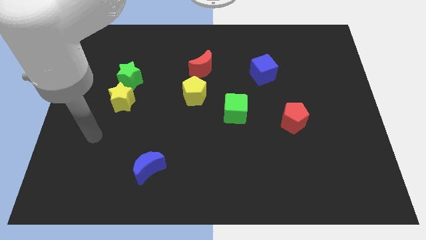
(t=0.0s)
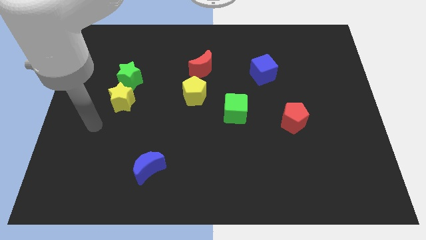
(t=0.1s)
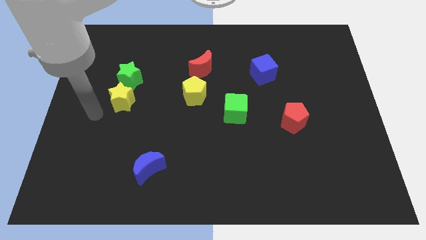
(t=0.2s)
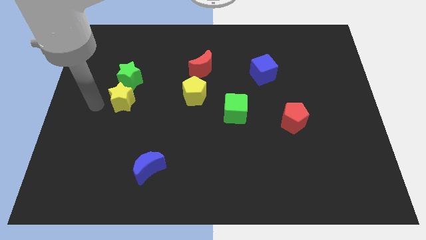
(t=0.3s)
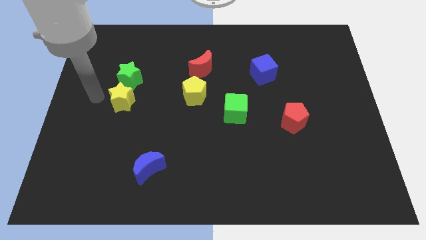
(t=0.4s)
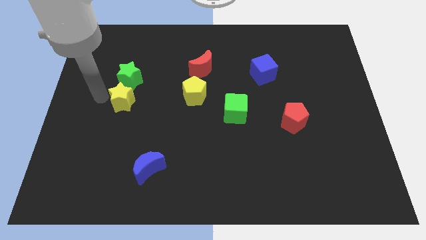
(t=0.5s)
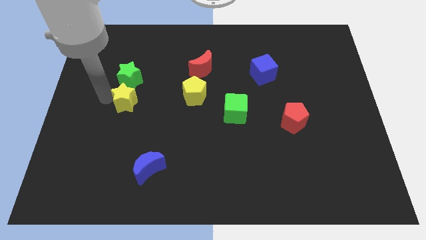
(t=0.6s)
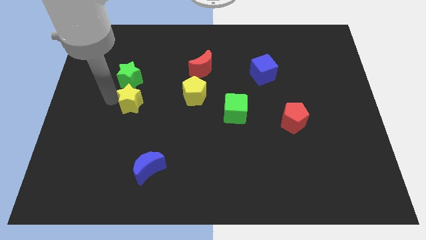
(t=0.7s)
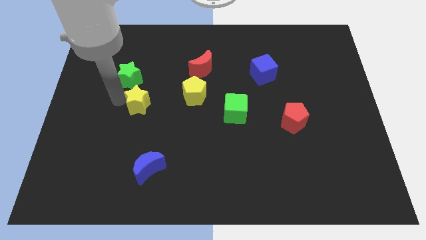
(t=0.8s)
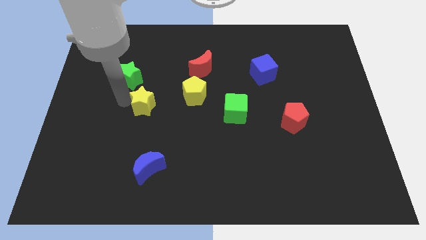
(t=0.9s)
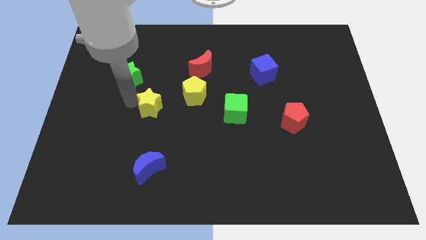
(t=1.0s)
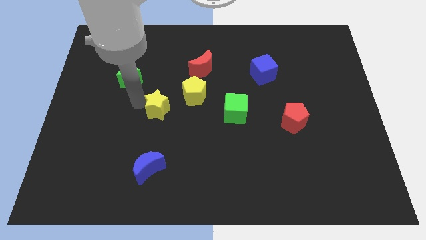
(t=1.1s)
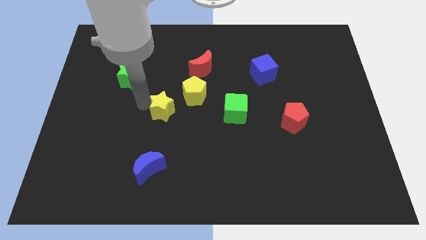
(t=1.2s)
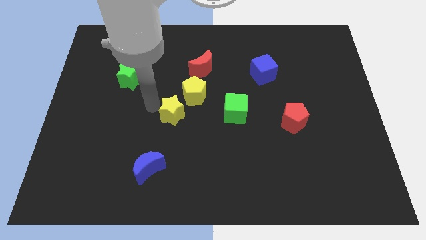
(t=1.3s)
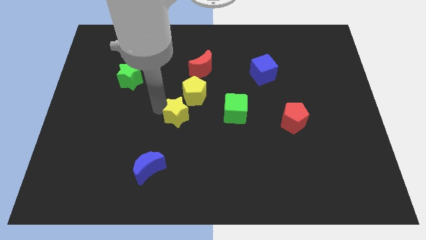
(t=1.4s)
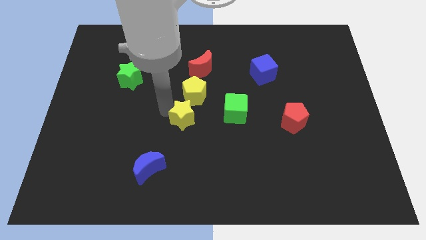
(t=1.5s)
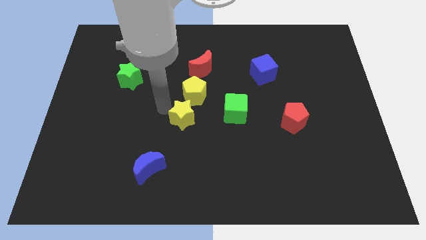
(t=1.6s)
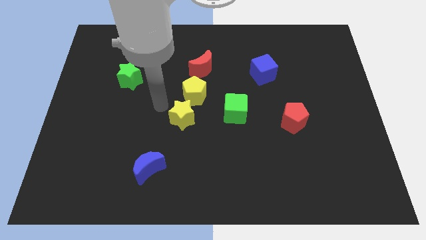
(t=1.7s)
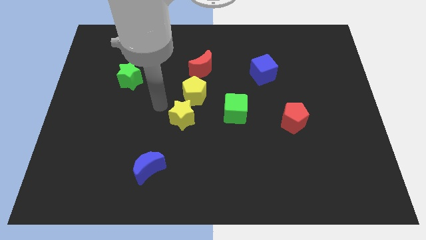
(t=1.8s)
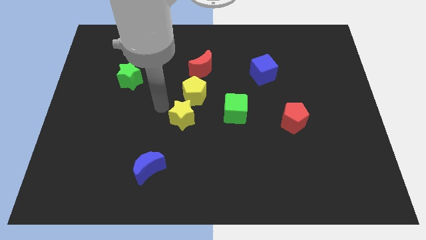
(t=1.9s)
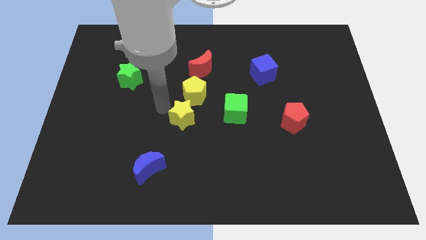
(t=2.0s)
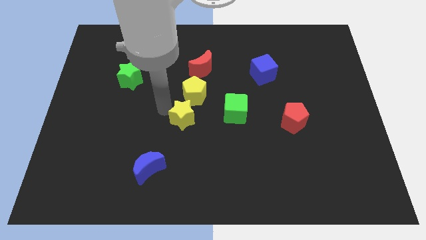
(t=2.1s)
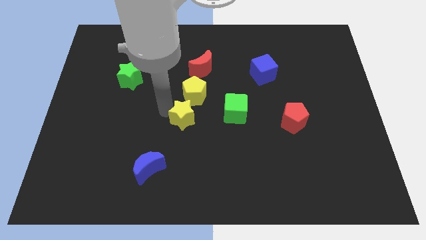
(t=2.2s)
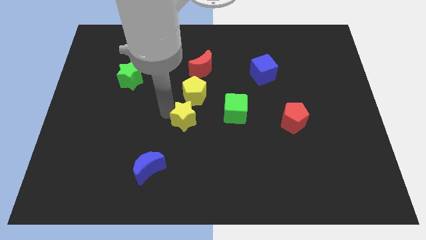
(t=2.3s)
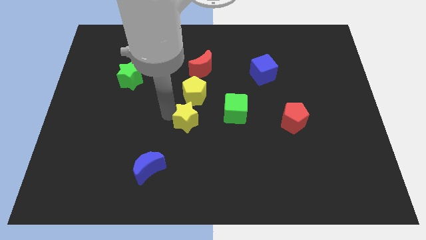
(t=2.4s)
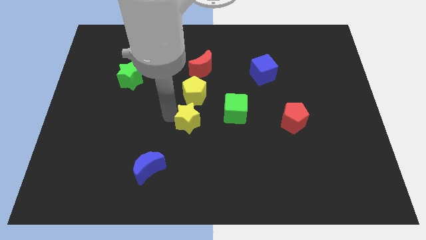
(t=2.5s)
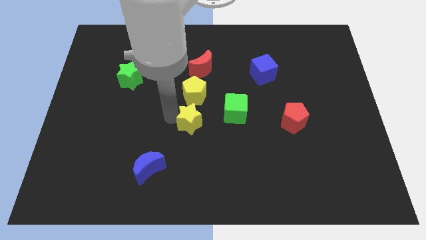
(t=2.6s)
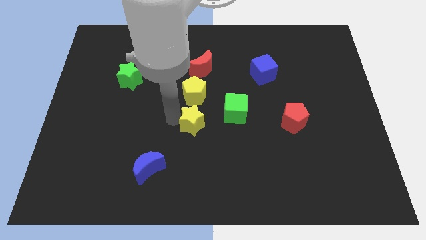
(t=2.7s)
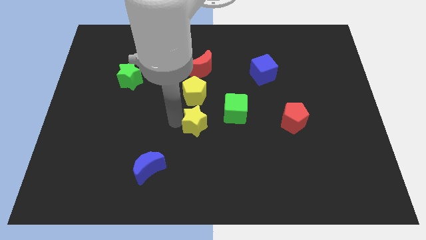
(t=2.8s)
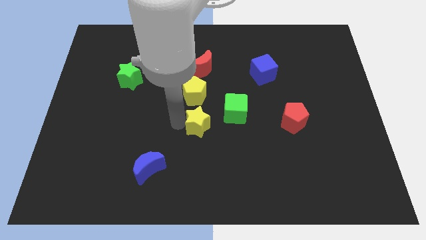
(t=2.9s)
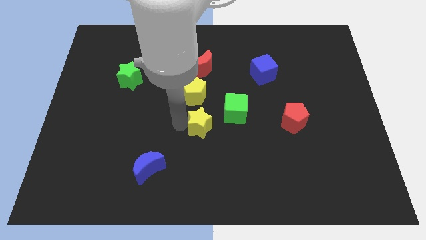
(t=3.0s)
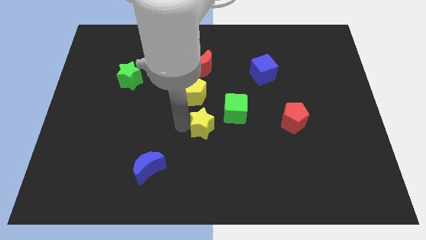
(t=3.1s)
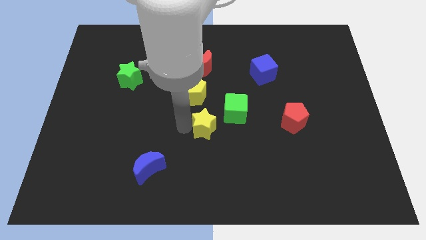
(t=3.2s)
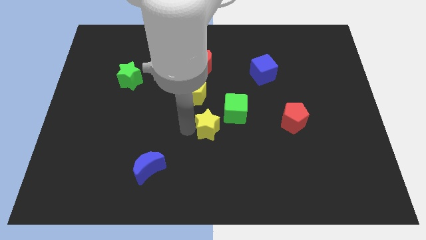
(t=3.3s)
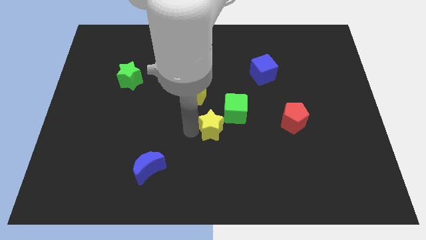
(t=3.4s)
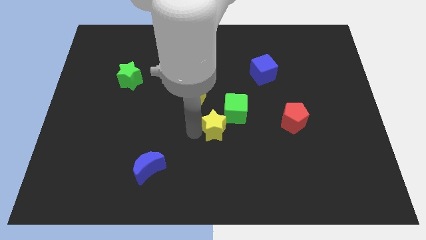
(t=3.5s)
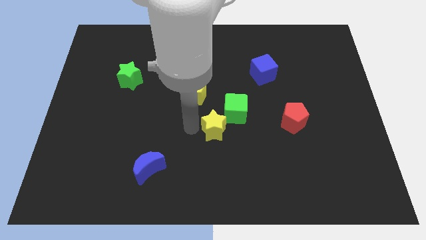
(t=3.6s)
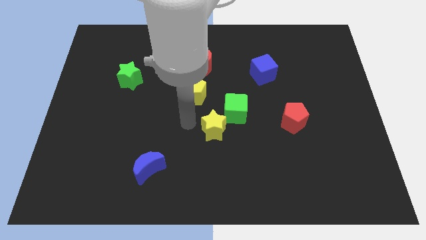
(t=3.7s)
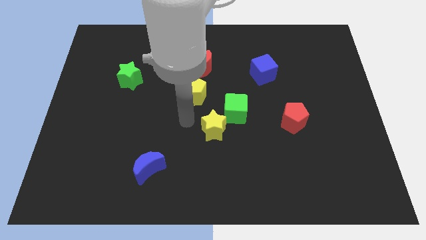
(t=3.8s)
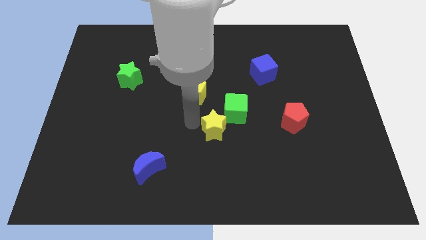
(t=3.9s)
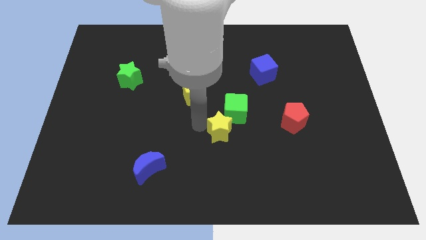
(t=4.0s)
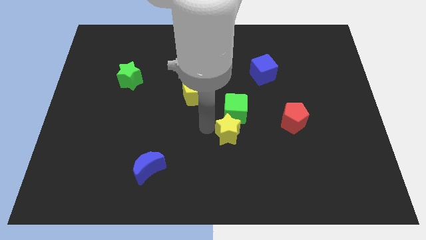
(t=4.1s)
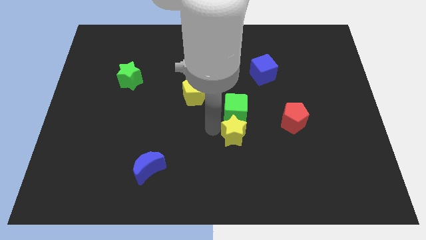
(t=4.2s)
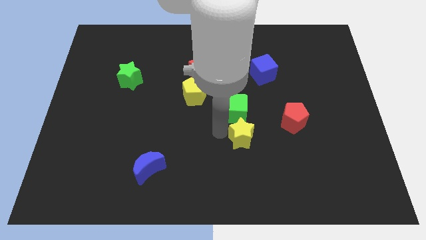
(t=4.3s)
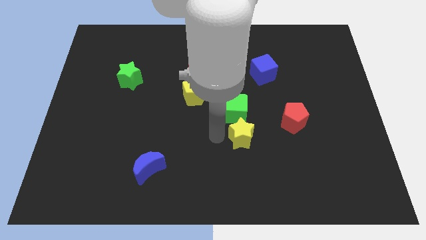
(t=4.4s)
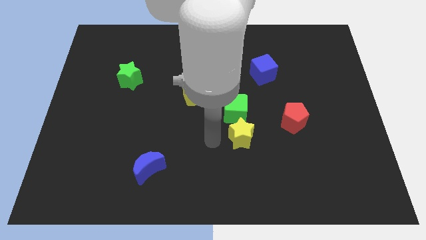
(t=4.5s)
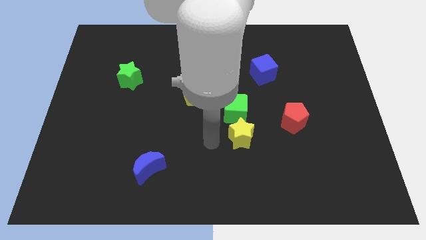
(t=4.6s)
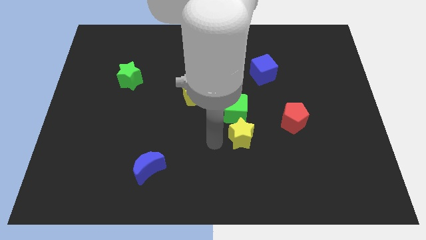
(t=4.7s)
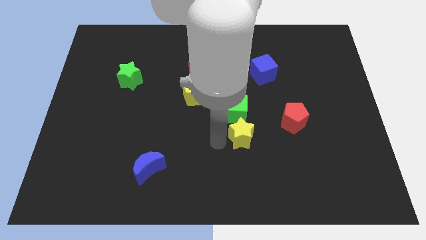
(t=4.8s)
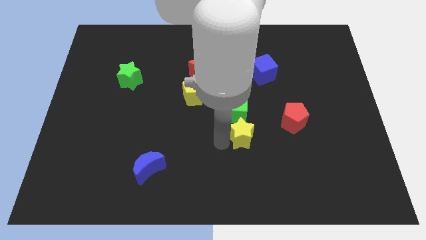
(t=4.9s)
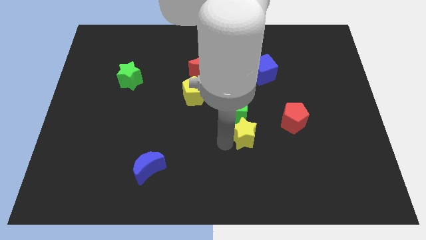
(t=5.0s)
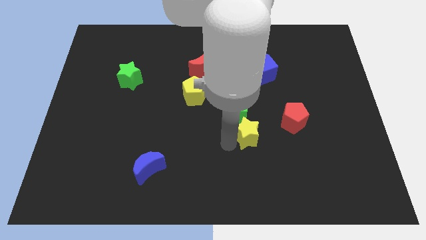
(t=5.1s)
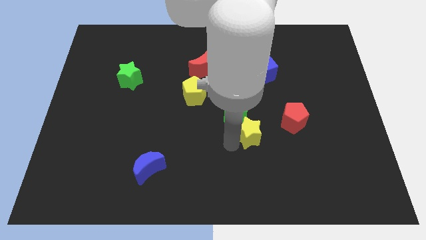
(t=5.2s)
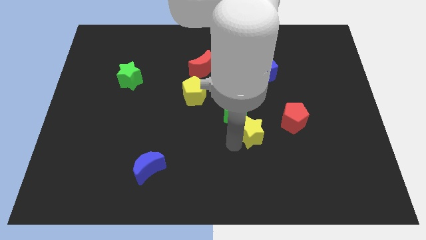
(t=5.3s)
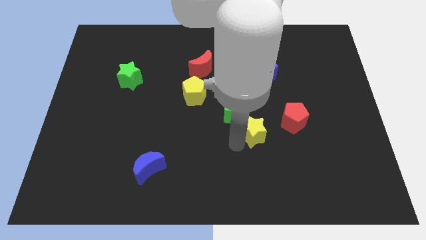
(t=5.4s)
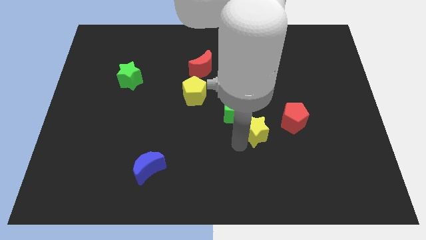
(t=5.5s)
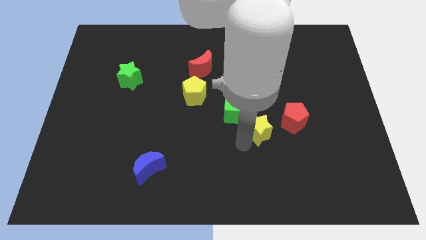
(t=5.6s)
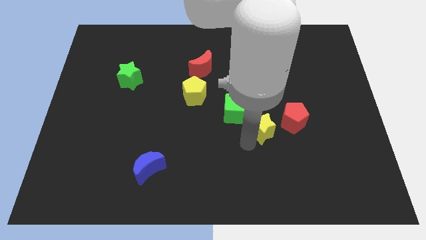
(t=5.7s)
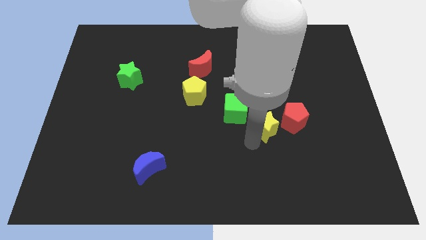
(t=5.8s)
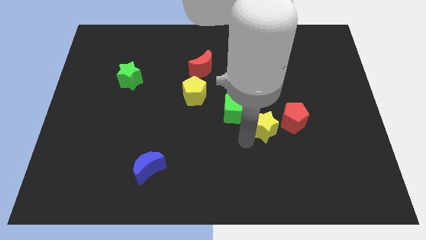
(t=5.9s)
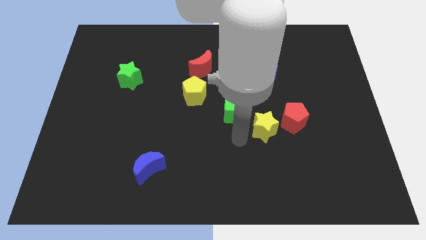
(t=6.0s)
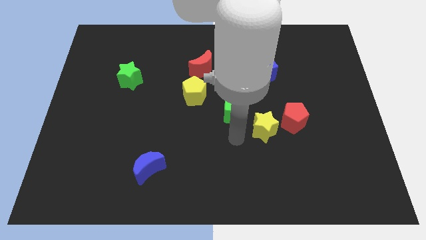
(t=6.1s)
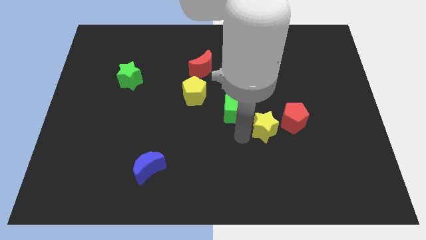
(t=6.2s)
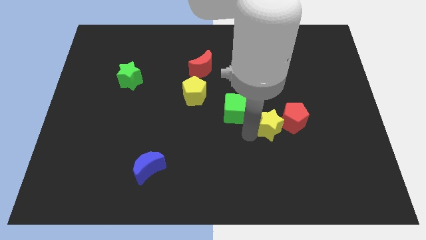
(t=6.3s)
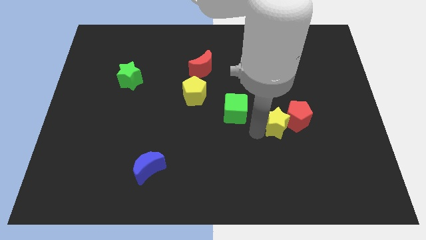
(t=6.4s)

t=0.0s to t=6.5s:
put the yellow star close to the red pentagon
